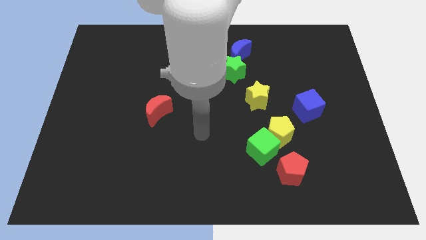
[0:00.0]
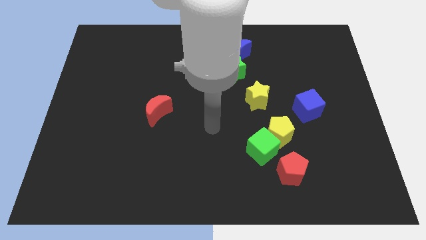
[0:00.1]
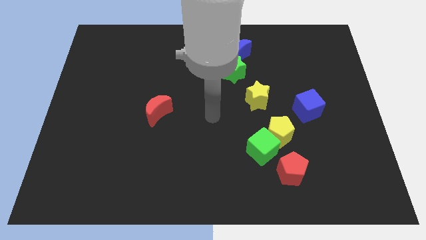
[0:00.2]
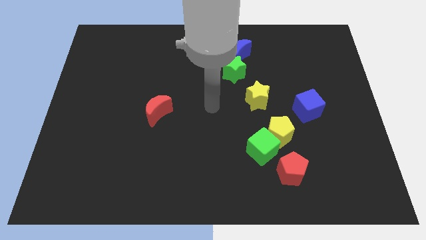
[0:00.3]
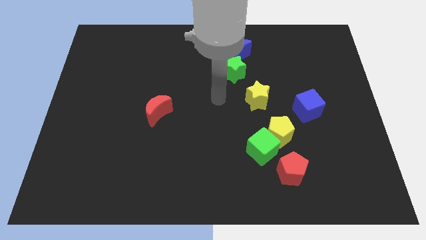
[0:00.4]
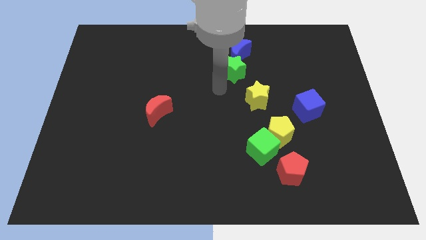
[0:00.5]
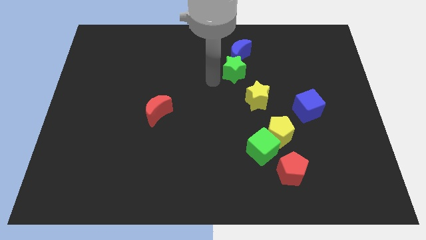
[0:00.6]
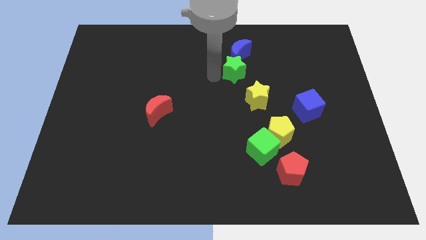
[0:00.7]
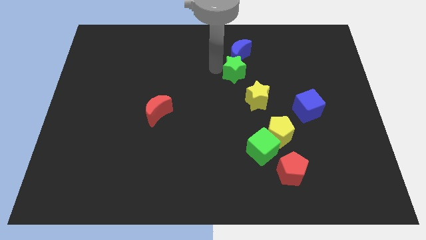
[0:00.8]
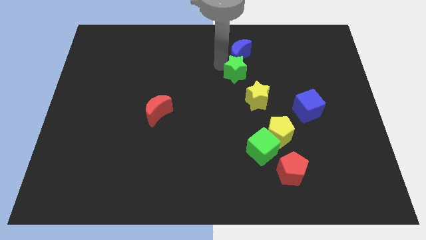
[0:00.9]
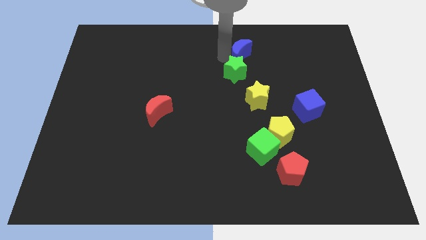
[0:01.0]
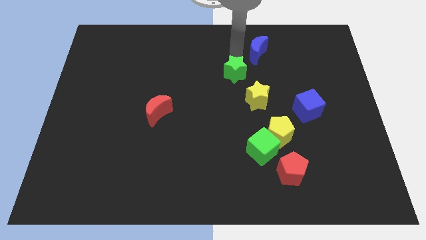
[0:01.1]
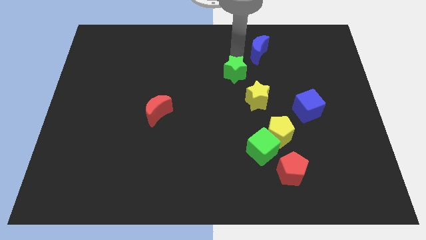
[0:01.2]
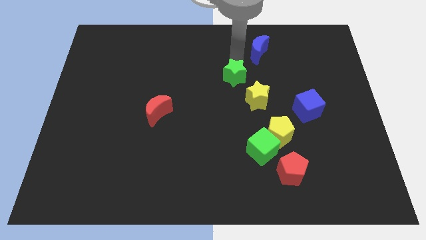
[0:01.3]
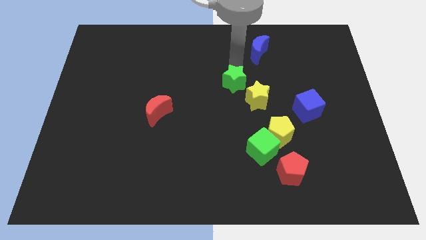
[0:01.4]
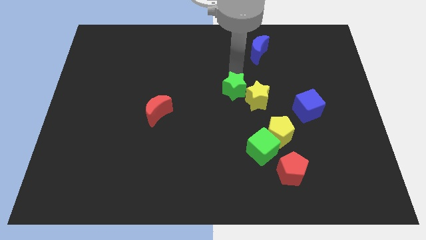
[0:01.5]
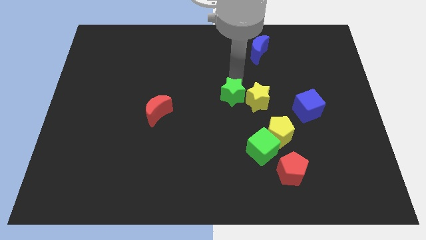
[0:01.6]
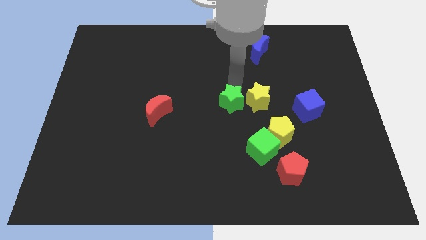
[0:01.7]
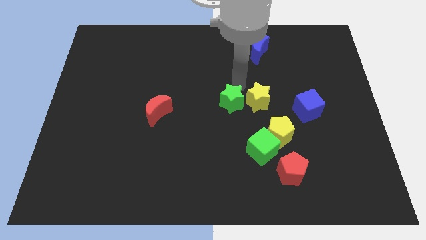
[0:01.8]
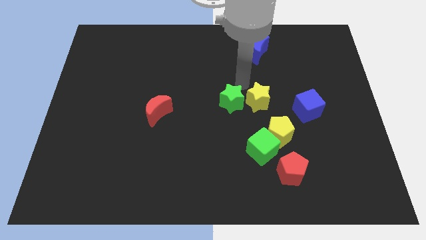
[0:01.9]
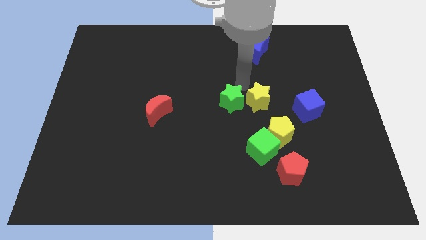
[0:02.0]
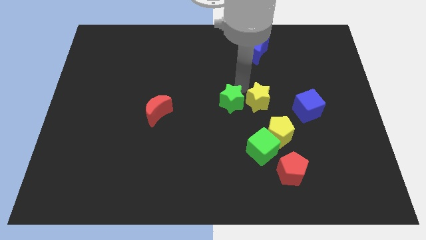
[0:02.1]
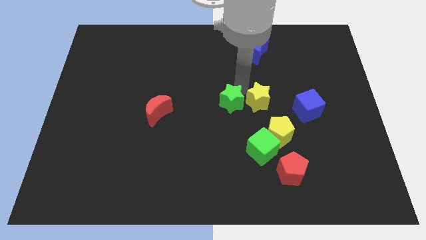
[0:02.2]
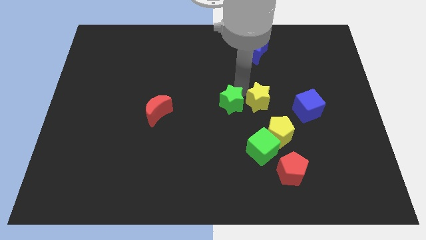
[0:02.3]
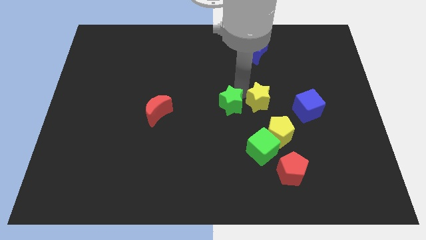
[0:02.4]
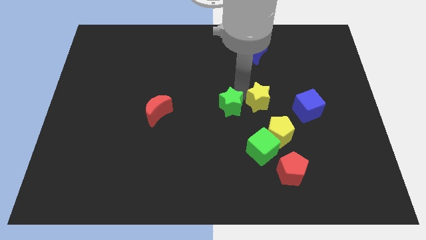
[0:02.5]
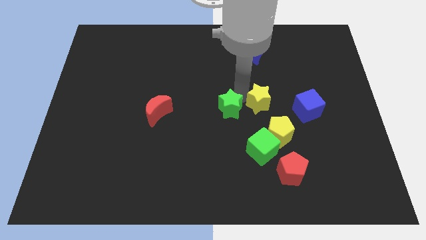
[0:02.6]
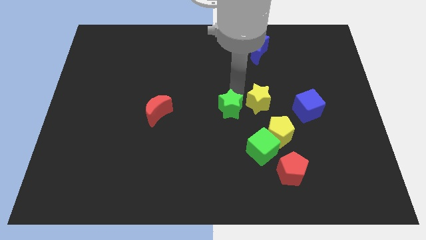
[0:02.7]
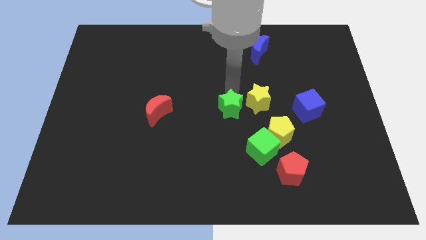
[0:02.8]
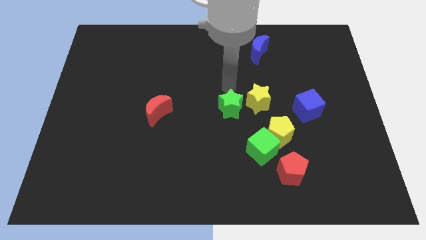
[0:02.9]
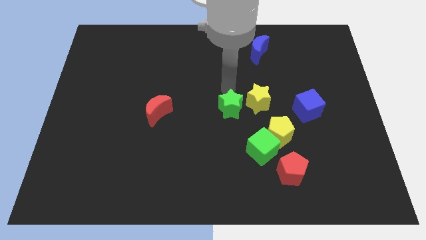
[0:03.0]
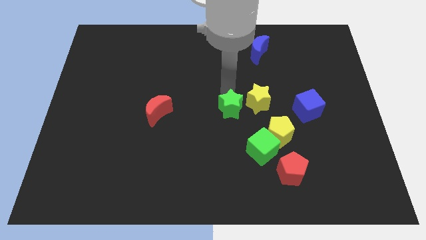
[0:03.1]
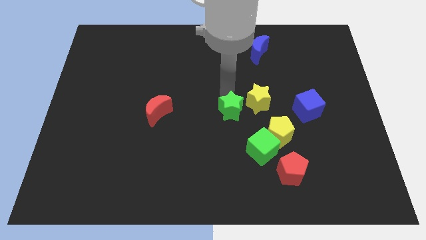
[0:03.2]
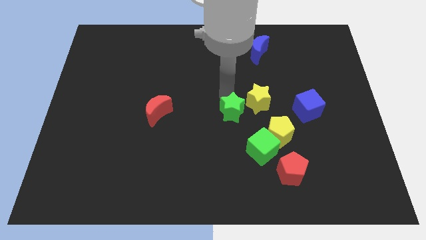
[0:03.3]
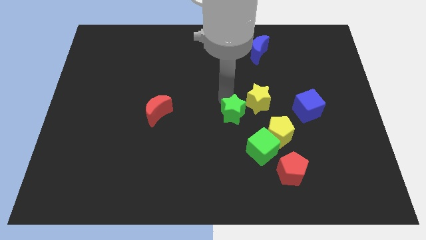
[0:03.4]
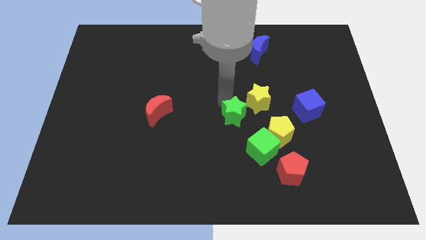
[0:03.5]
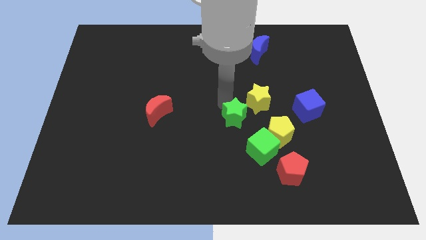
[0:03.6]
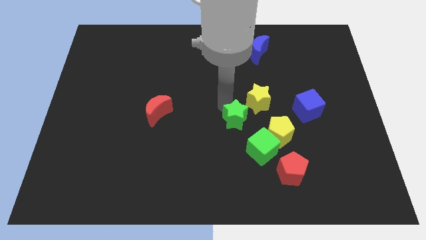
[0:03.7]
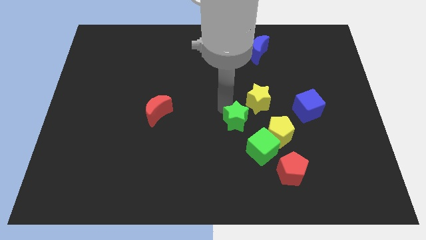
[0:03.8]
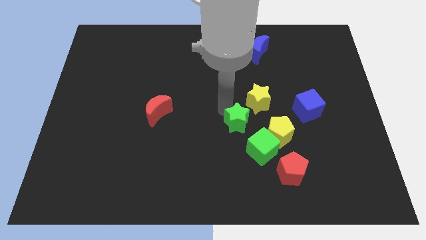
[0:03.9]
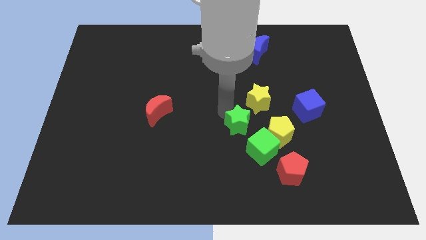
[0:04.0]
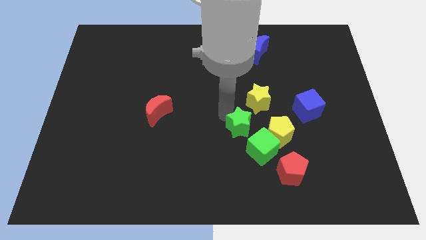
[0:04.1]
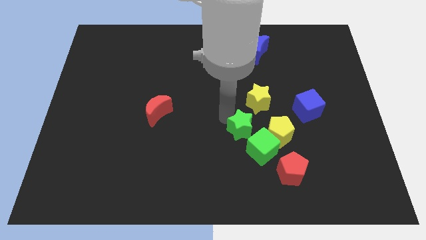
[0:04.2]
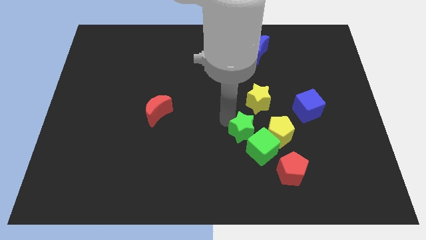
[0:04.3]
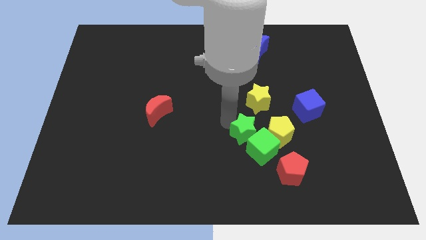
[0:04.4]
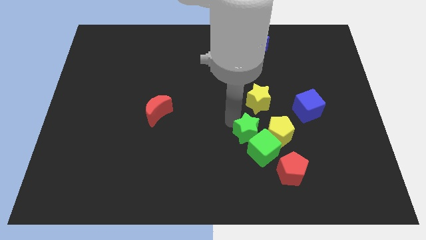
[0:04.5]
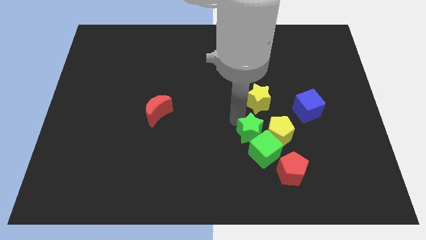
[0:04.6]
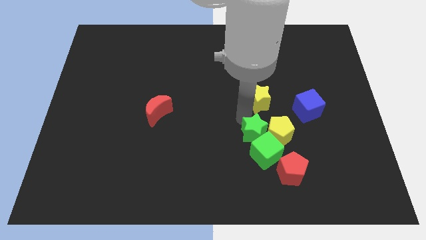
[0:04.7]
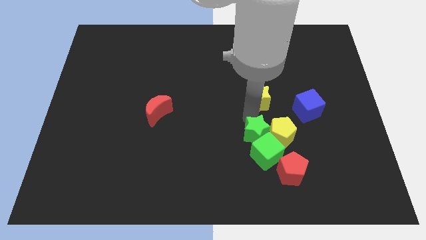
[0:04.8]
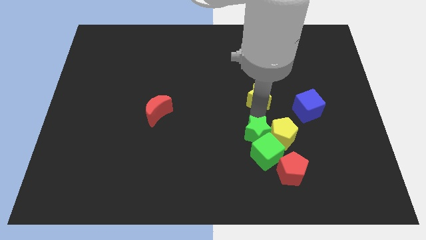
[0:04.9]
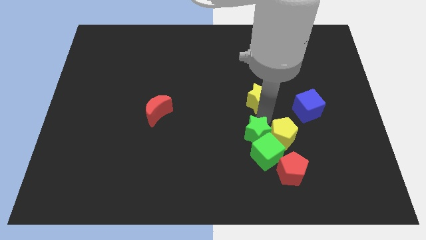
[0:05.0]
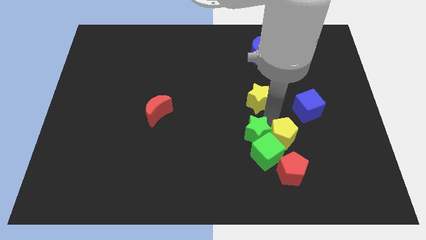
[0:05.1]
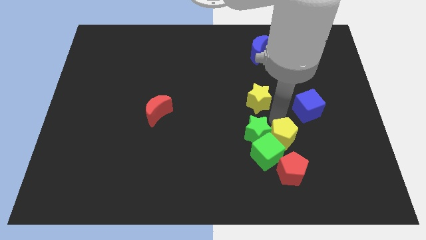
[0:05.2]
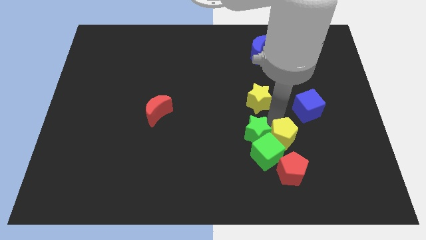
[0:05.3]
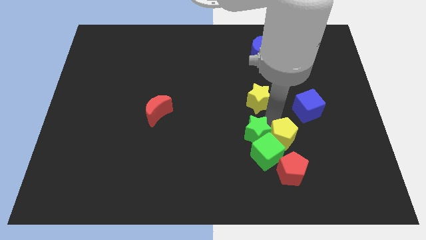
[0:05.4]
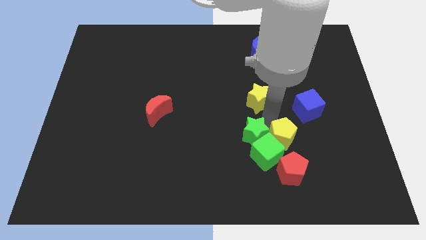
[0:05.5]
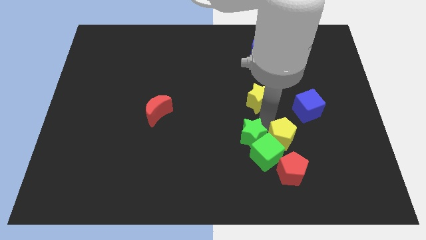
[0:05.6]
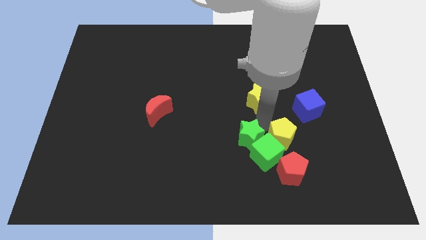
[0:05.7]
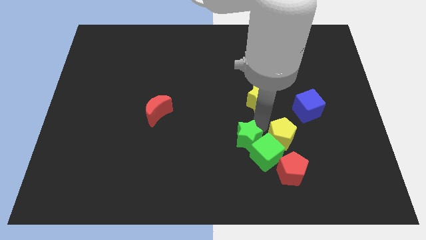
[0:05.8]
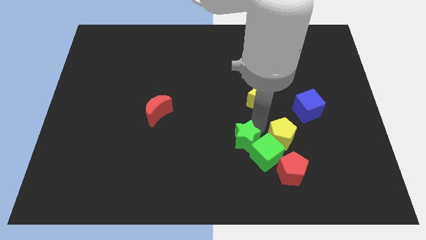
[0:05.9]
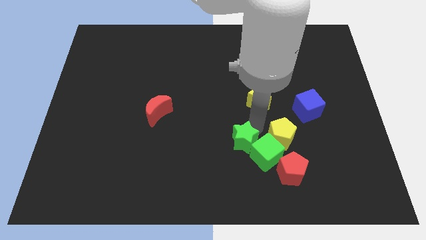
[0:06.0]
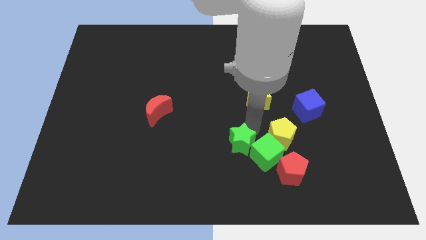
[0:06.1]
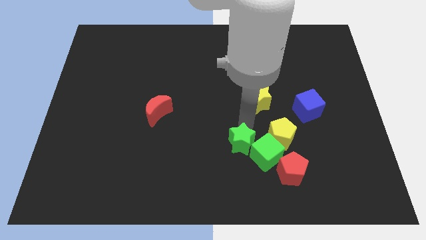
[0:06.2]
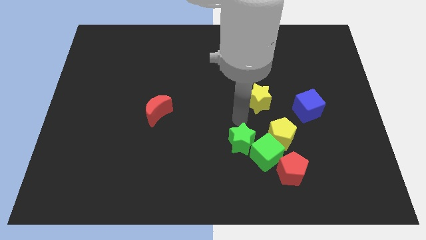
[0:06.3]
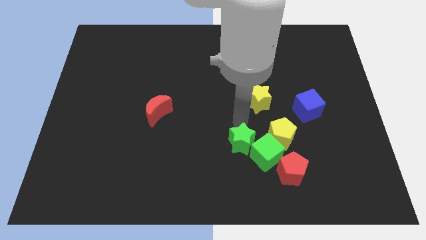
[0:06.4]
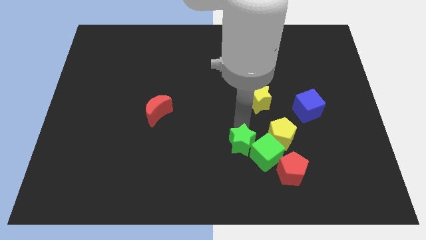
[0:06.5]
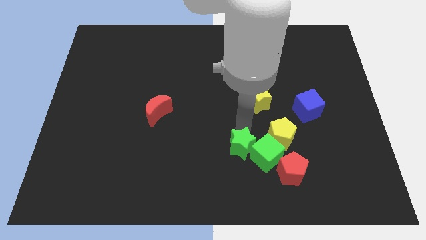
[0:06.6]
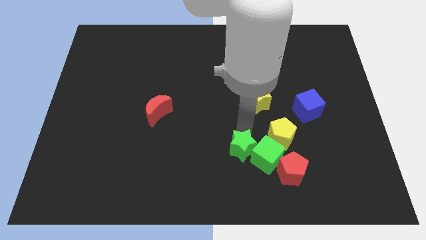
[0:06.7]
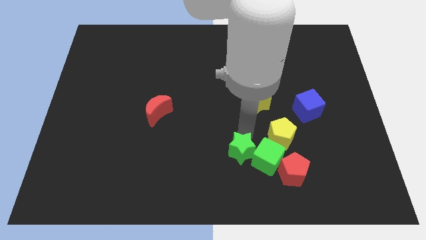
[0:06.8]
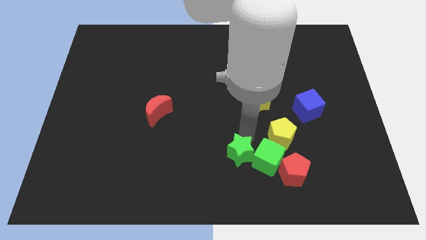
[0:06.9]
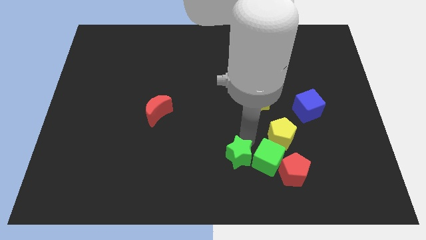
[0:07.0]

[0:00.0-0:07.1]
slide the green star diagonally down and to the left of the green cube
